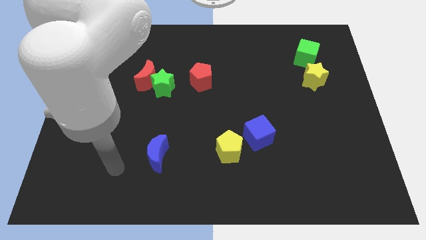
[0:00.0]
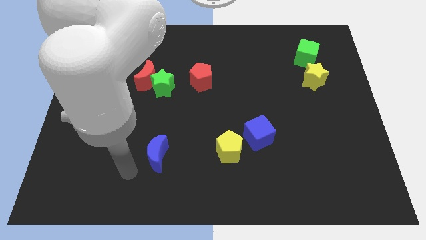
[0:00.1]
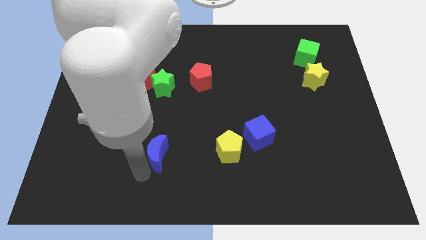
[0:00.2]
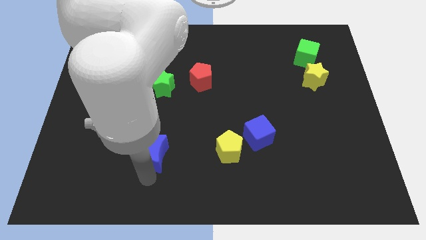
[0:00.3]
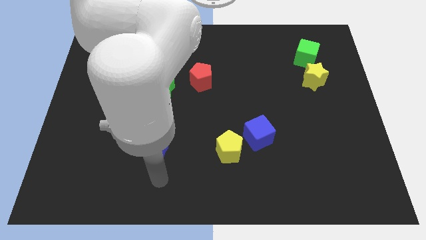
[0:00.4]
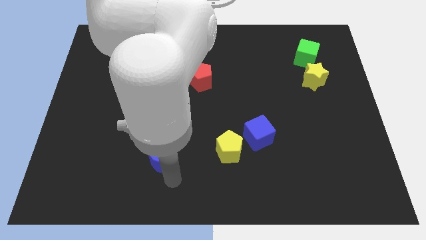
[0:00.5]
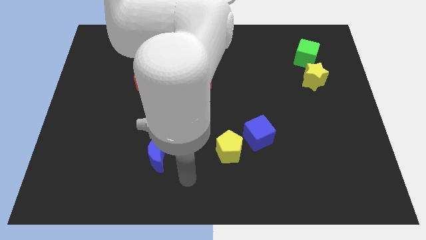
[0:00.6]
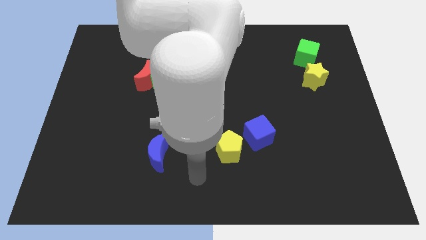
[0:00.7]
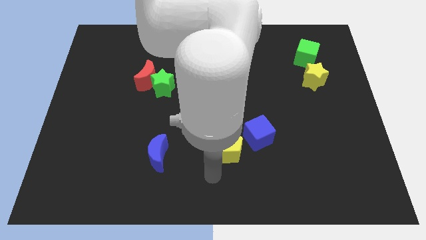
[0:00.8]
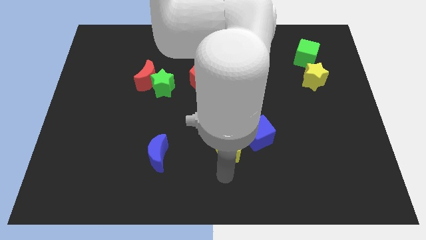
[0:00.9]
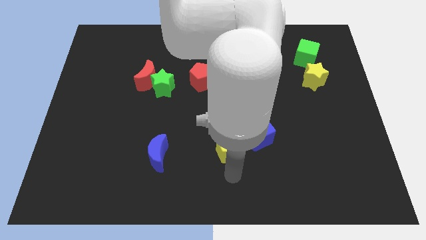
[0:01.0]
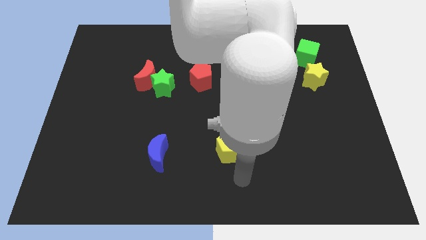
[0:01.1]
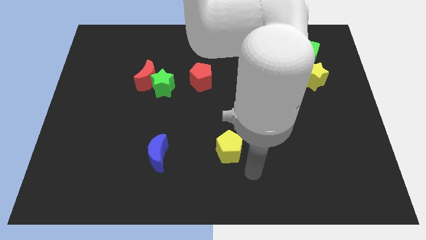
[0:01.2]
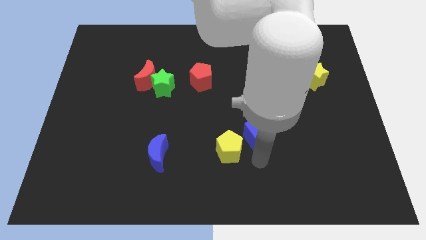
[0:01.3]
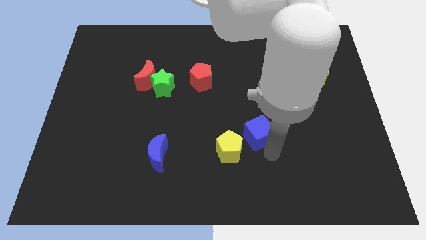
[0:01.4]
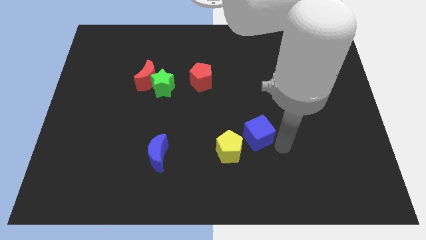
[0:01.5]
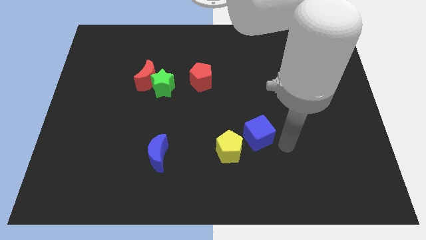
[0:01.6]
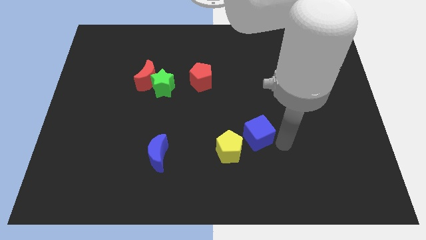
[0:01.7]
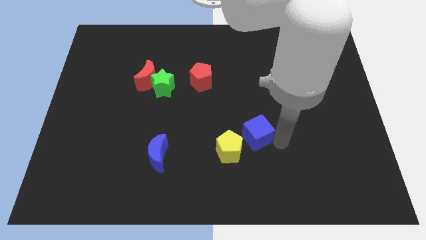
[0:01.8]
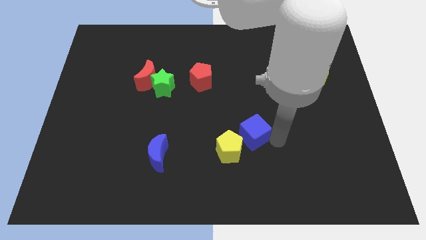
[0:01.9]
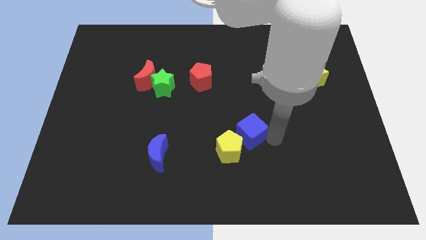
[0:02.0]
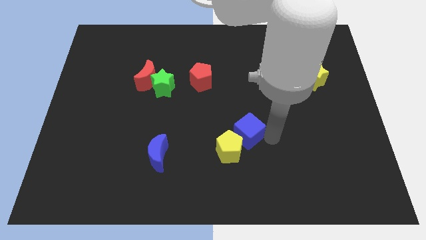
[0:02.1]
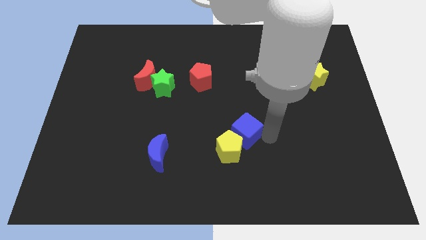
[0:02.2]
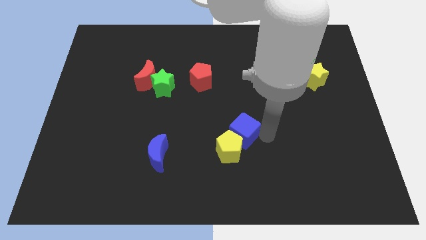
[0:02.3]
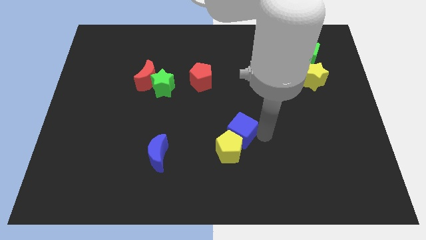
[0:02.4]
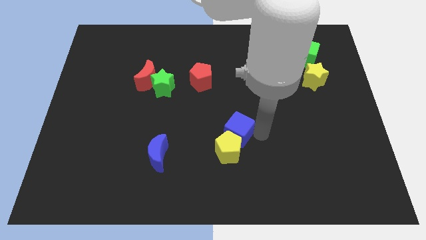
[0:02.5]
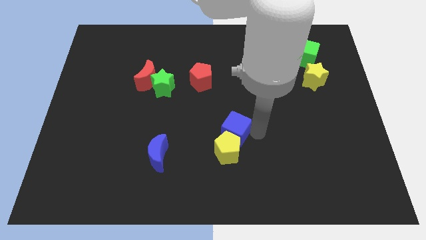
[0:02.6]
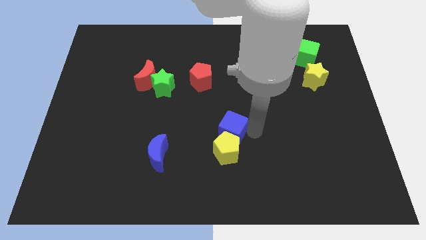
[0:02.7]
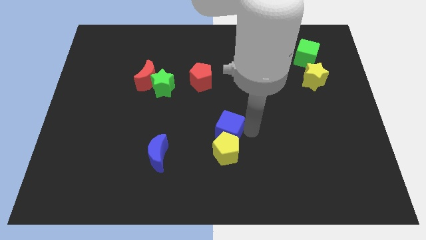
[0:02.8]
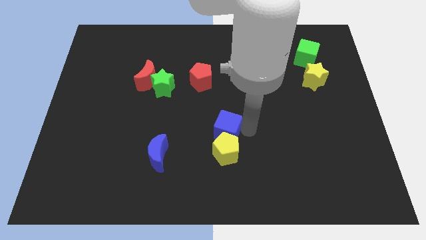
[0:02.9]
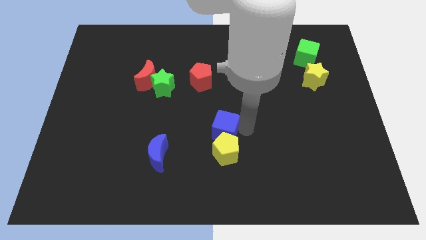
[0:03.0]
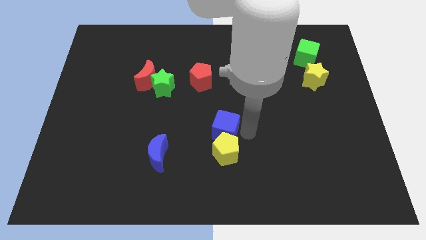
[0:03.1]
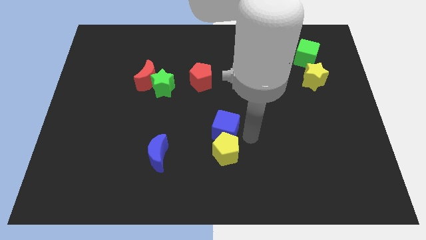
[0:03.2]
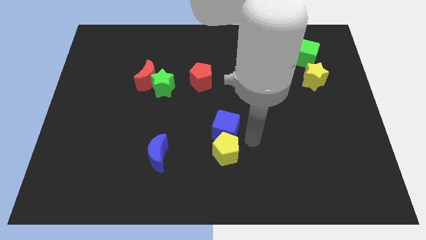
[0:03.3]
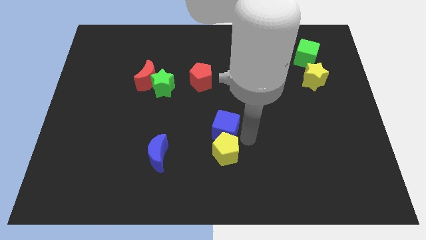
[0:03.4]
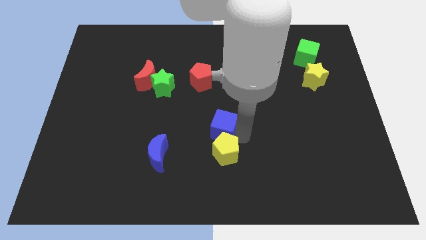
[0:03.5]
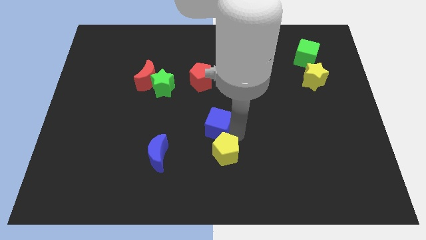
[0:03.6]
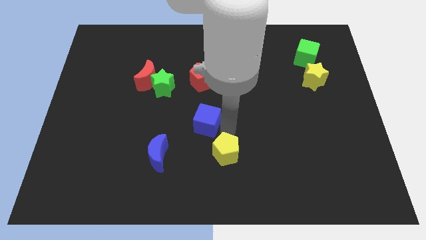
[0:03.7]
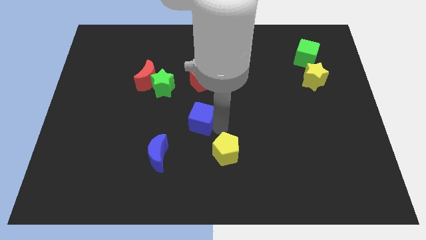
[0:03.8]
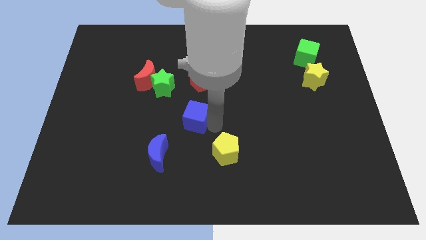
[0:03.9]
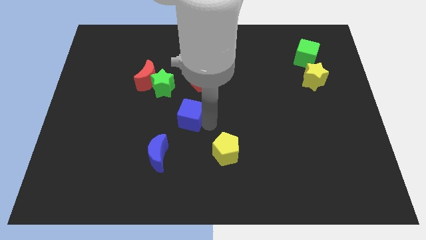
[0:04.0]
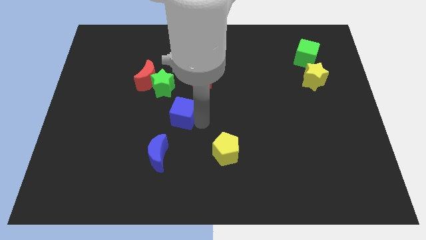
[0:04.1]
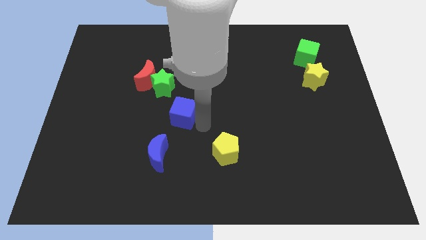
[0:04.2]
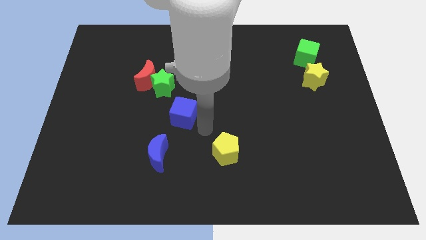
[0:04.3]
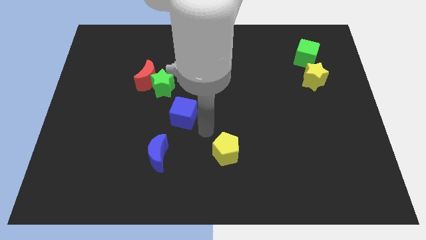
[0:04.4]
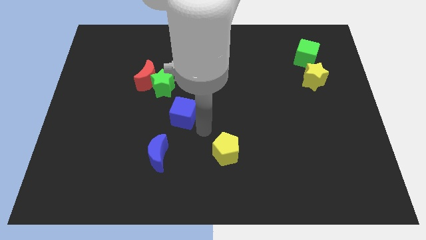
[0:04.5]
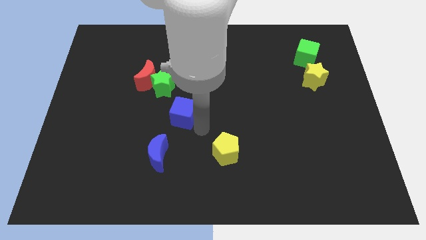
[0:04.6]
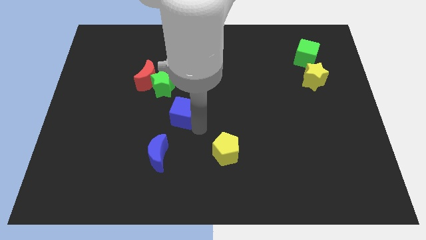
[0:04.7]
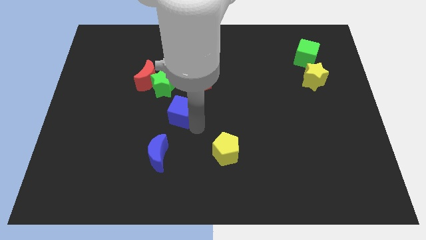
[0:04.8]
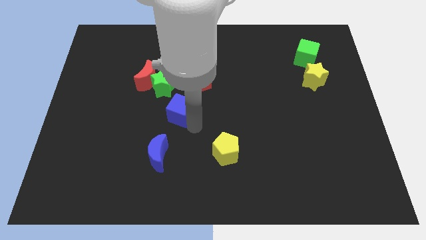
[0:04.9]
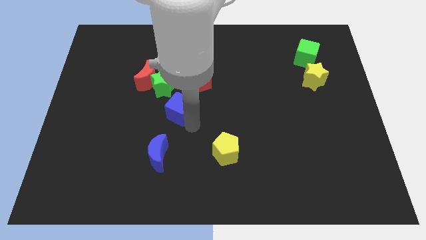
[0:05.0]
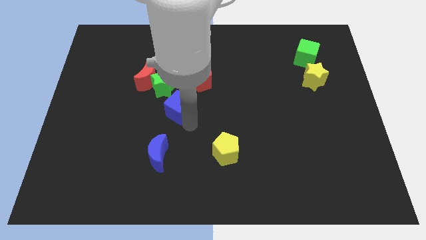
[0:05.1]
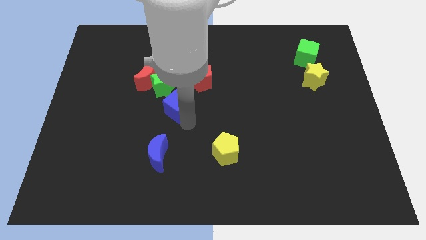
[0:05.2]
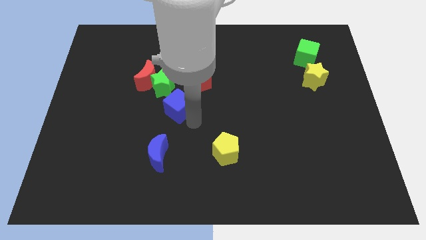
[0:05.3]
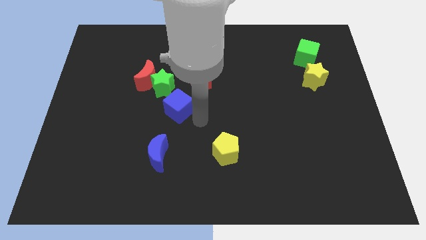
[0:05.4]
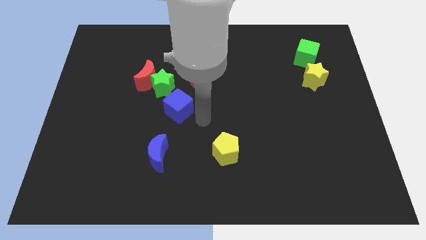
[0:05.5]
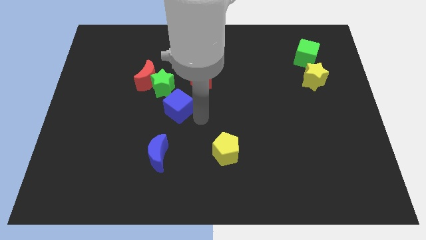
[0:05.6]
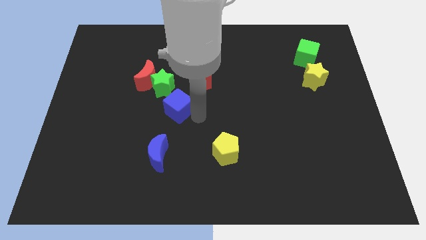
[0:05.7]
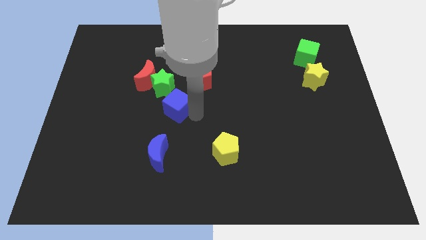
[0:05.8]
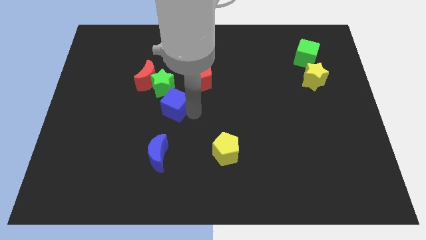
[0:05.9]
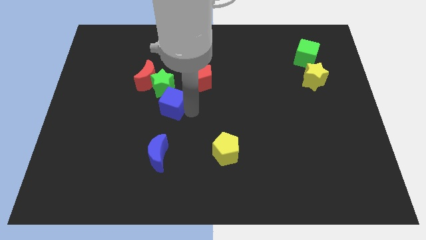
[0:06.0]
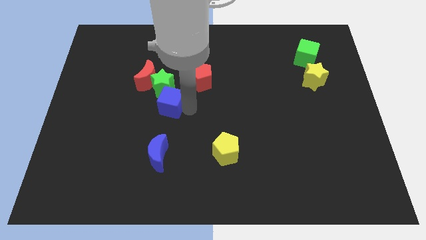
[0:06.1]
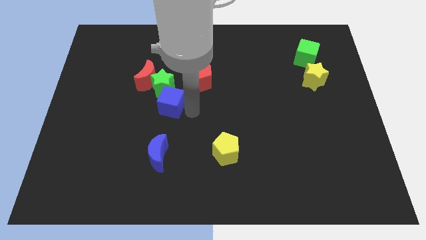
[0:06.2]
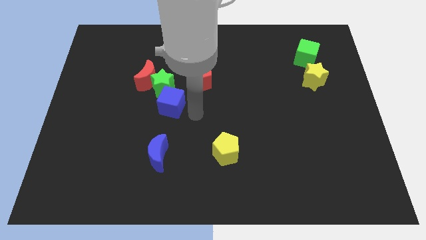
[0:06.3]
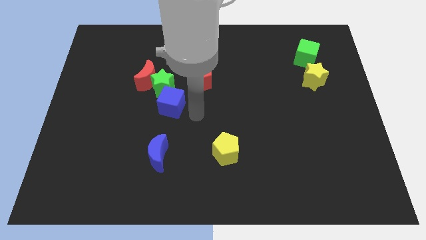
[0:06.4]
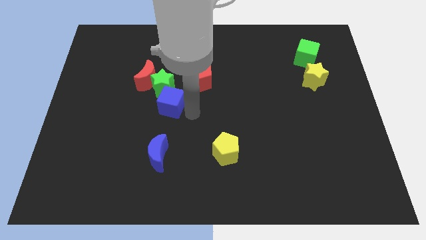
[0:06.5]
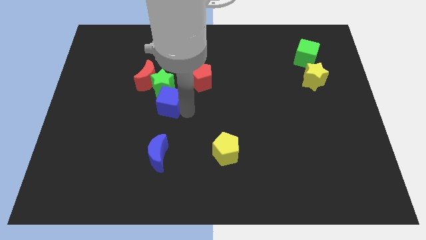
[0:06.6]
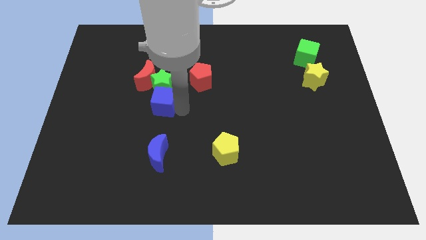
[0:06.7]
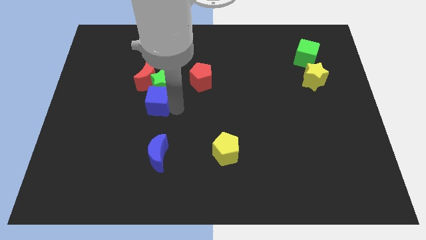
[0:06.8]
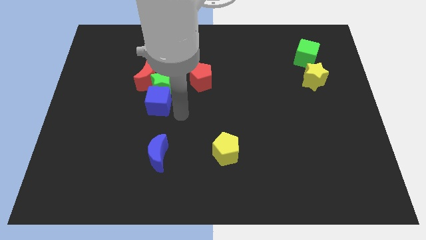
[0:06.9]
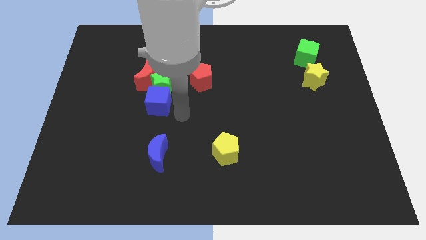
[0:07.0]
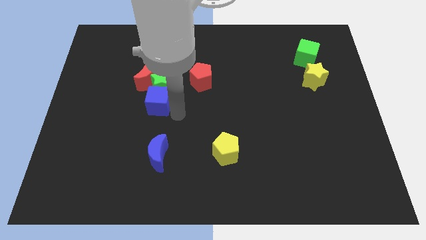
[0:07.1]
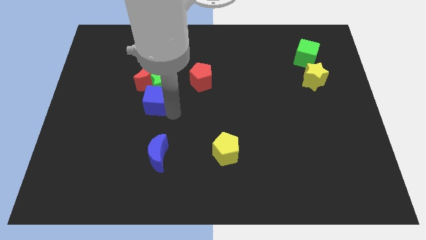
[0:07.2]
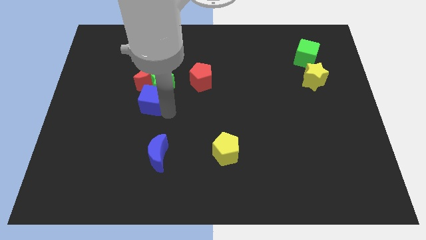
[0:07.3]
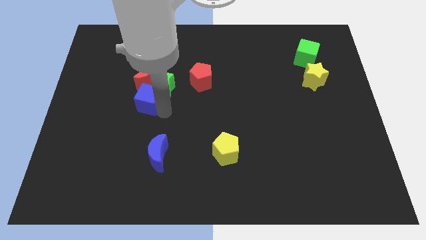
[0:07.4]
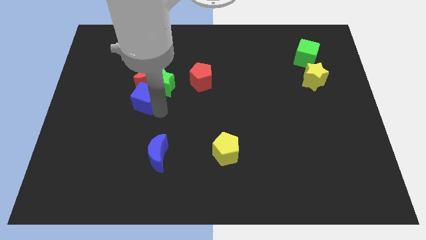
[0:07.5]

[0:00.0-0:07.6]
slide the blue cube left of the green star
